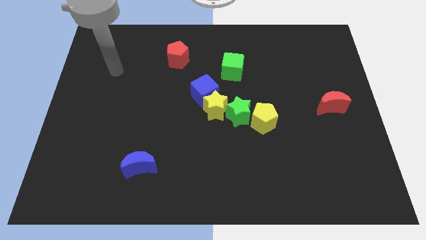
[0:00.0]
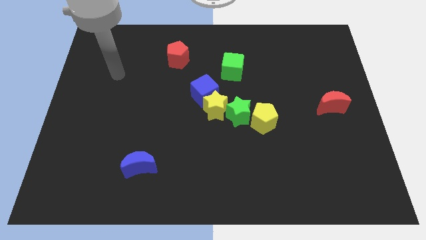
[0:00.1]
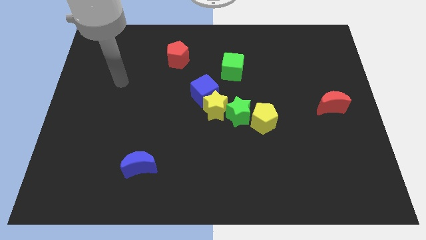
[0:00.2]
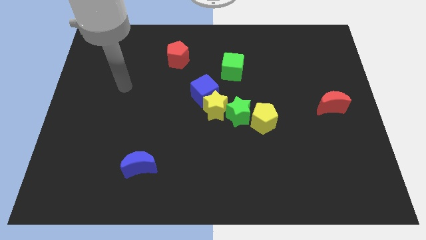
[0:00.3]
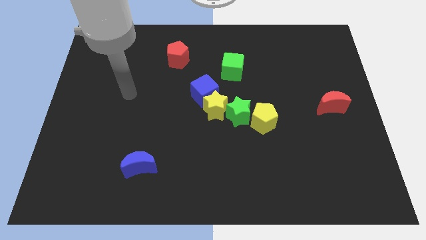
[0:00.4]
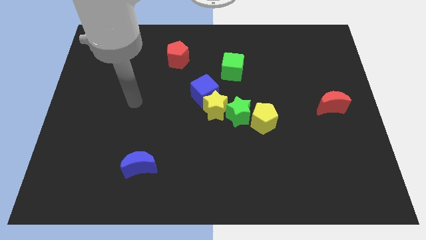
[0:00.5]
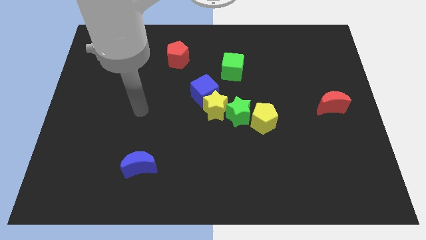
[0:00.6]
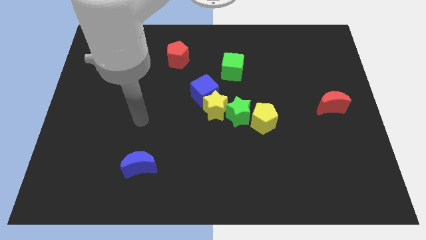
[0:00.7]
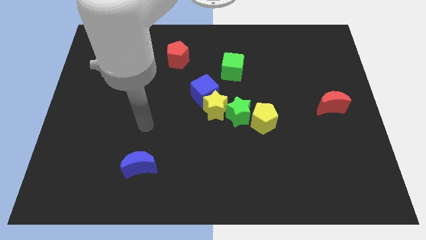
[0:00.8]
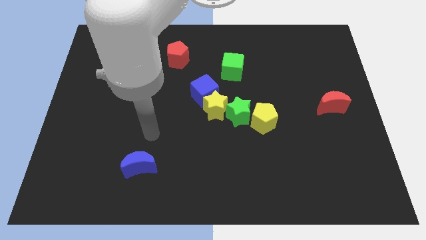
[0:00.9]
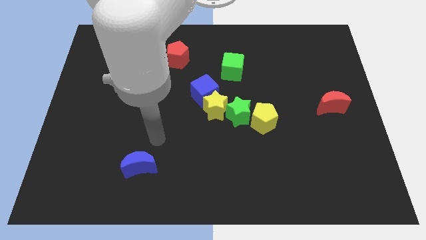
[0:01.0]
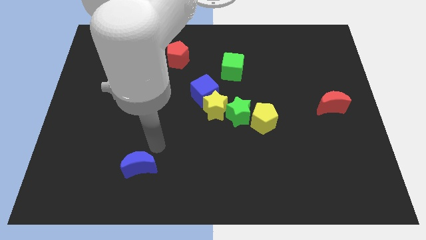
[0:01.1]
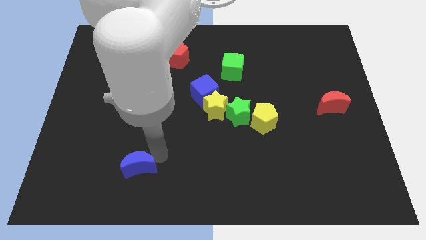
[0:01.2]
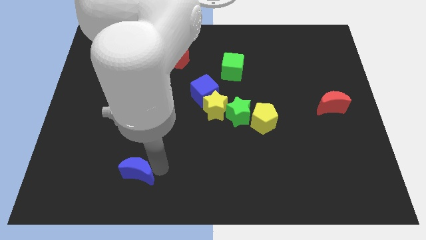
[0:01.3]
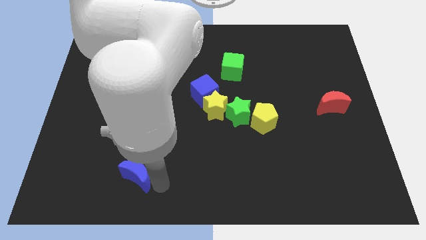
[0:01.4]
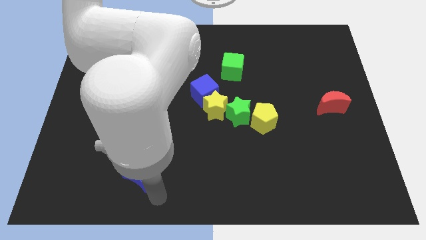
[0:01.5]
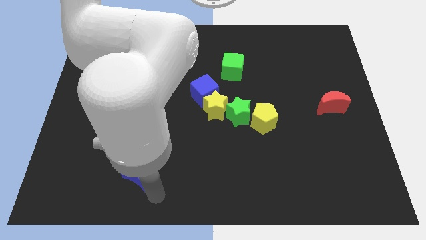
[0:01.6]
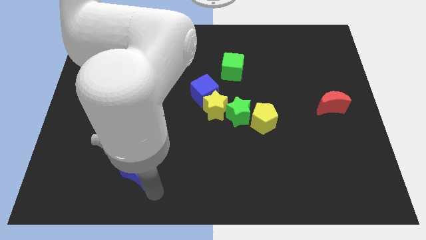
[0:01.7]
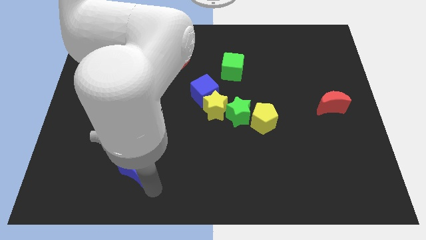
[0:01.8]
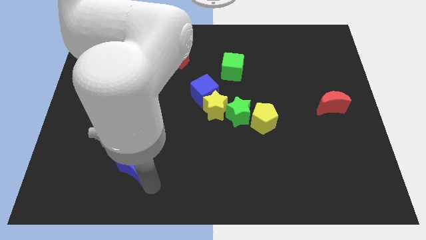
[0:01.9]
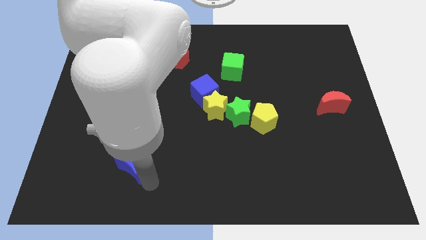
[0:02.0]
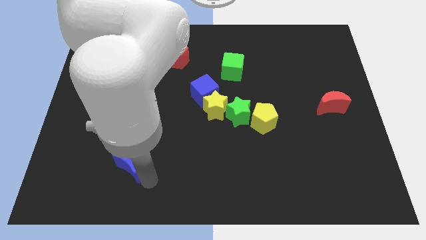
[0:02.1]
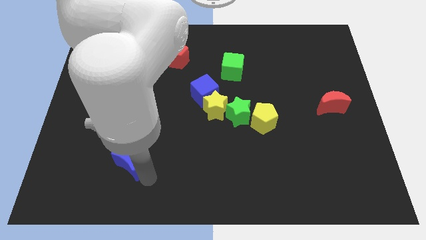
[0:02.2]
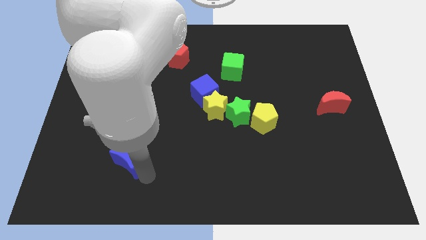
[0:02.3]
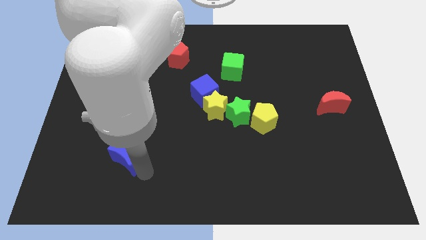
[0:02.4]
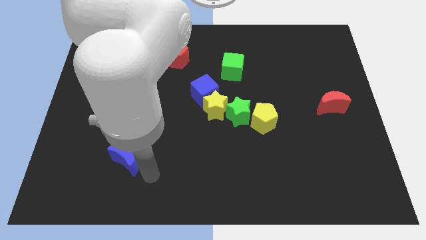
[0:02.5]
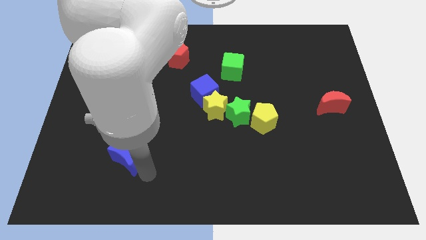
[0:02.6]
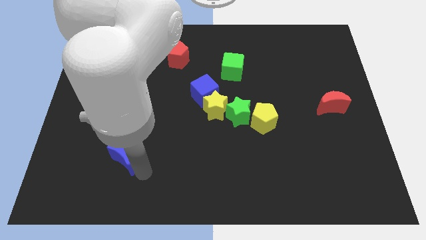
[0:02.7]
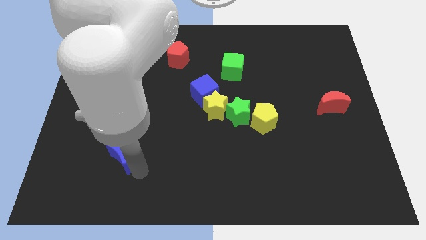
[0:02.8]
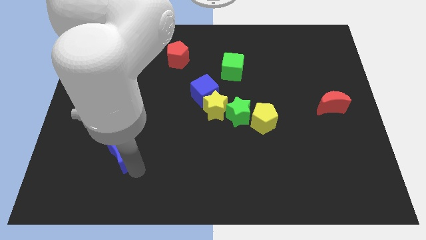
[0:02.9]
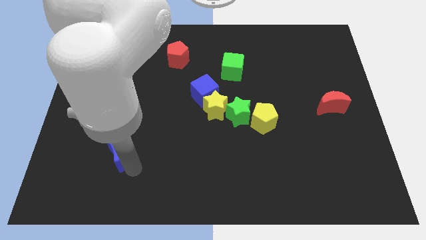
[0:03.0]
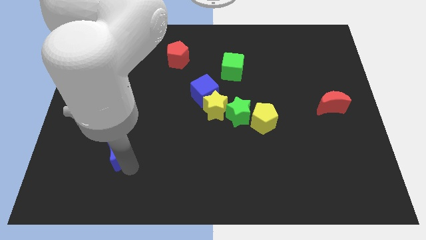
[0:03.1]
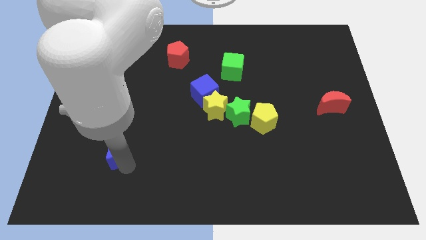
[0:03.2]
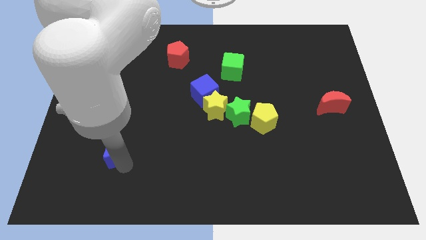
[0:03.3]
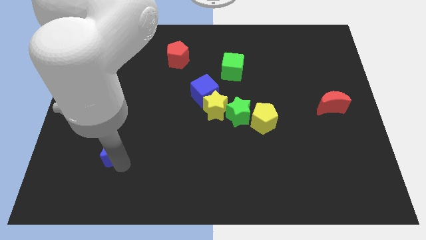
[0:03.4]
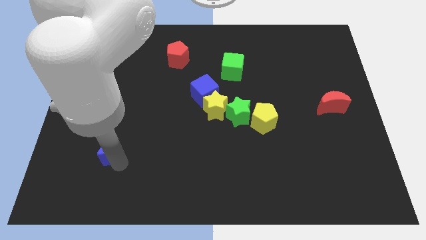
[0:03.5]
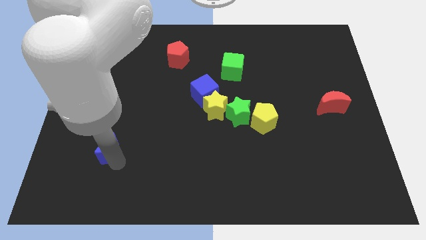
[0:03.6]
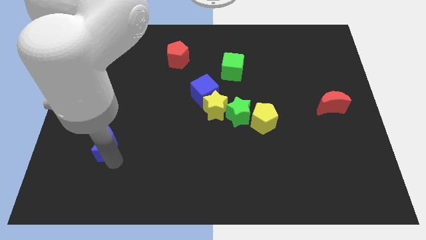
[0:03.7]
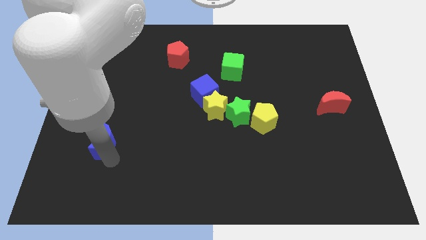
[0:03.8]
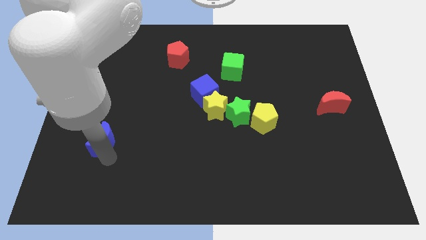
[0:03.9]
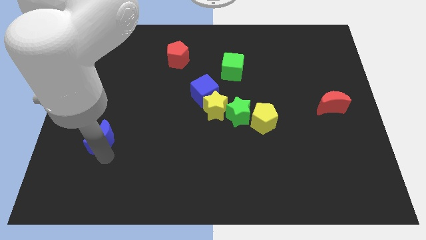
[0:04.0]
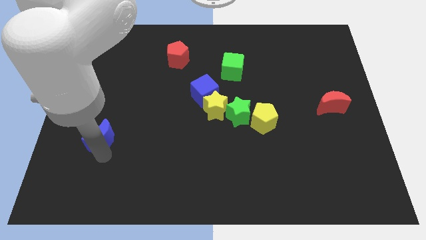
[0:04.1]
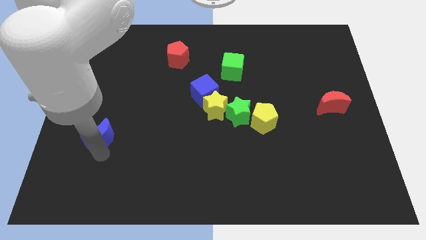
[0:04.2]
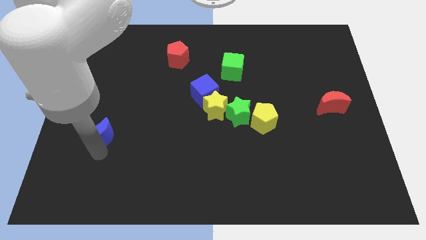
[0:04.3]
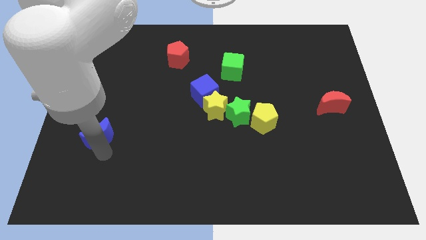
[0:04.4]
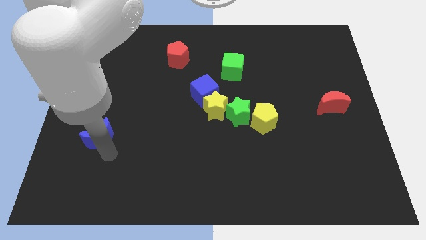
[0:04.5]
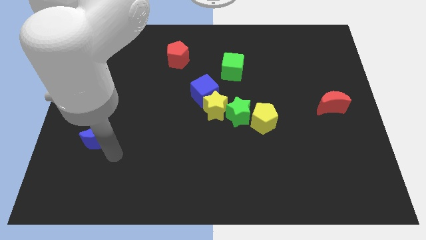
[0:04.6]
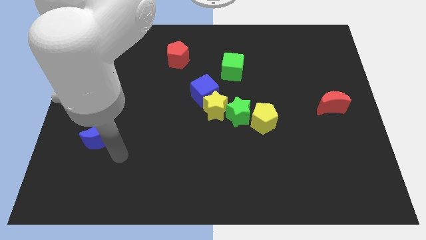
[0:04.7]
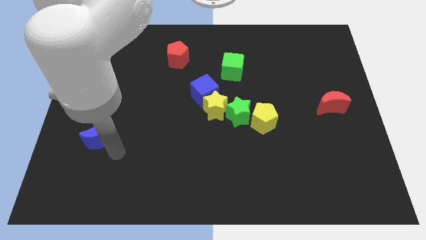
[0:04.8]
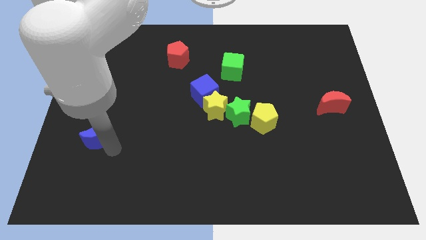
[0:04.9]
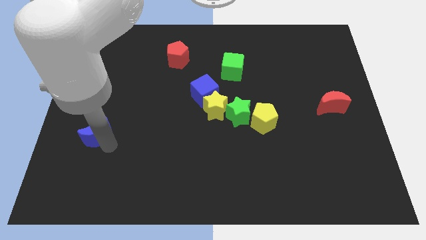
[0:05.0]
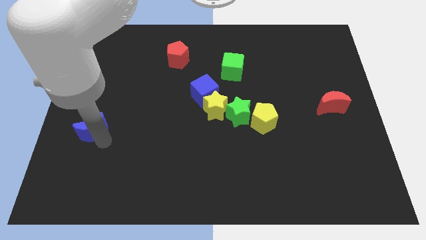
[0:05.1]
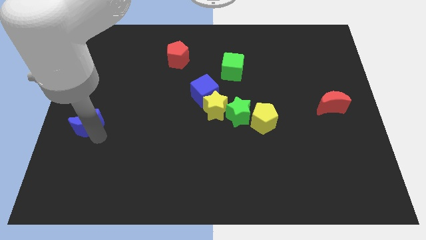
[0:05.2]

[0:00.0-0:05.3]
move the blue moon to the left side of the board
